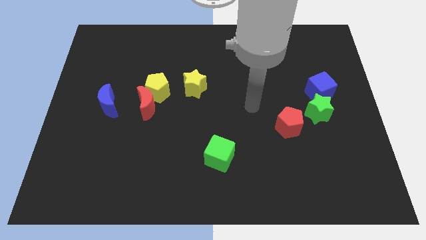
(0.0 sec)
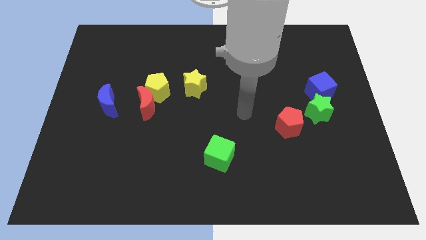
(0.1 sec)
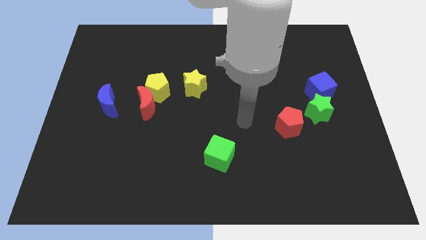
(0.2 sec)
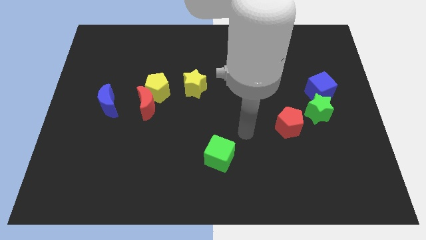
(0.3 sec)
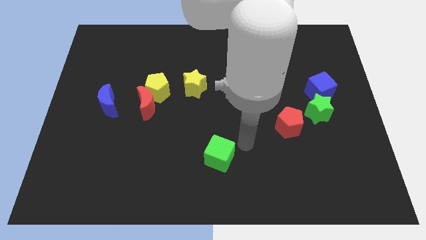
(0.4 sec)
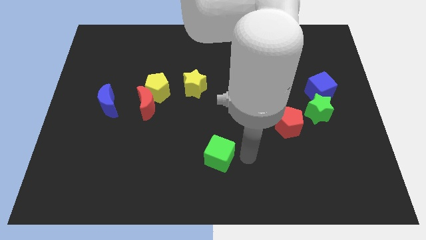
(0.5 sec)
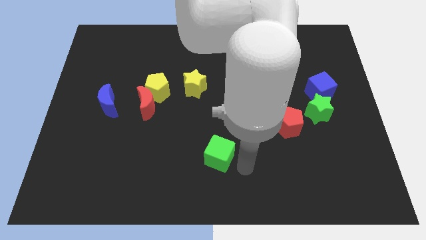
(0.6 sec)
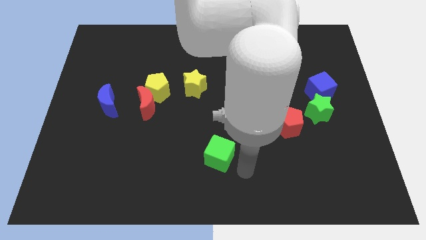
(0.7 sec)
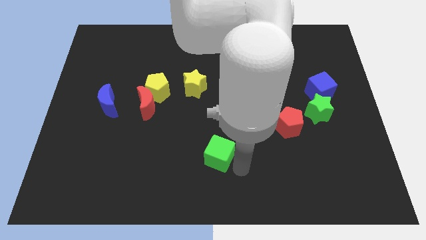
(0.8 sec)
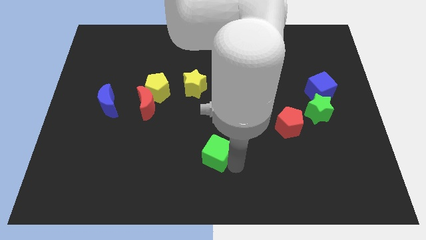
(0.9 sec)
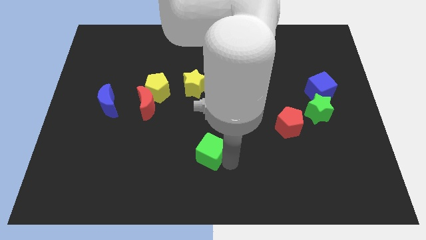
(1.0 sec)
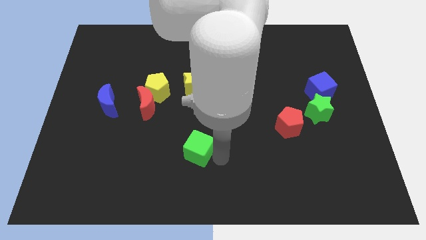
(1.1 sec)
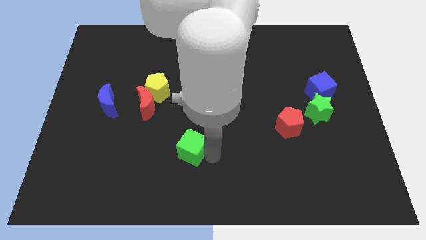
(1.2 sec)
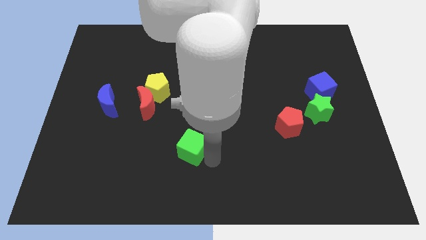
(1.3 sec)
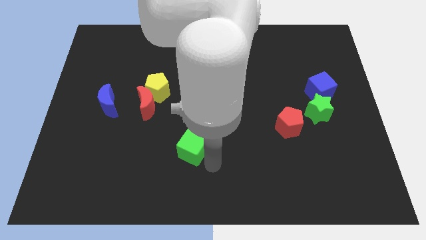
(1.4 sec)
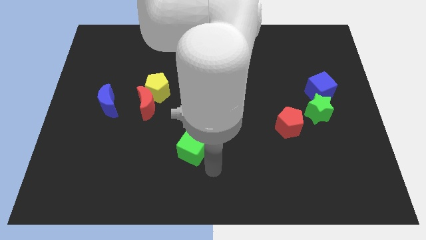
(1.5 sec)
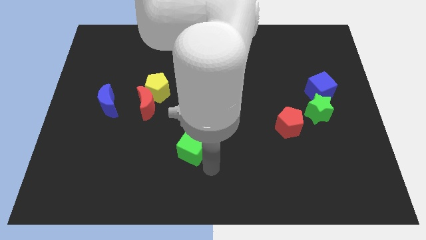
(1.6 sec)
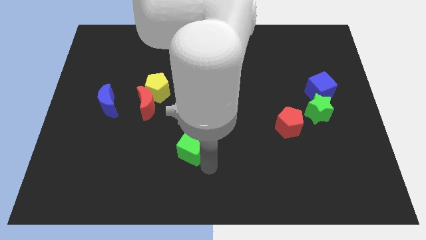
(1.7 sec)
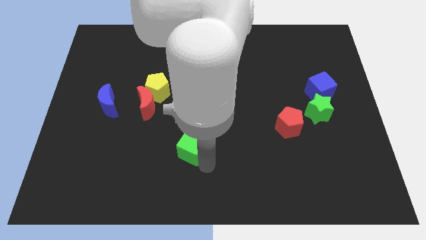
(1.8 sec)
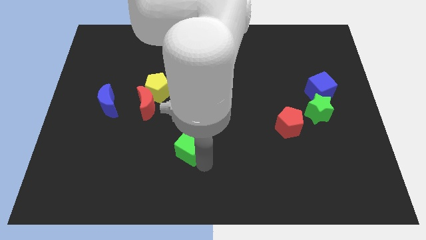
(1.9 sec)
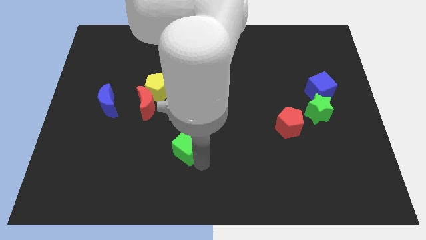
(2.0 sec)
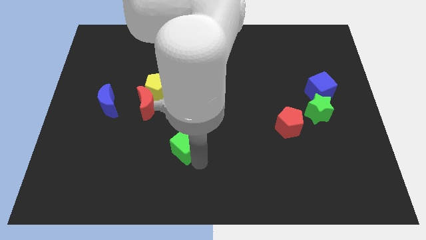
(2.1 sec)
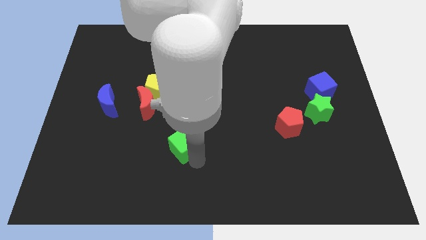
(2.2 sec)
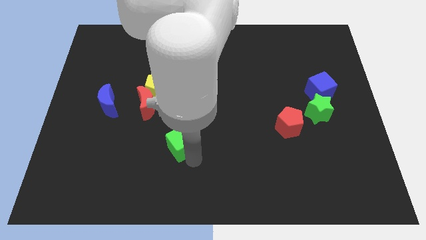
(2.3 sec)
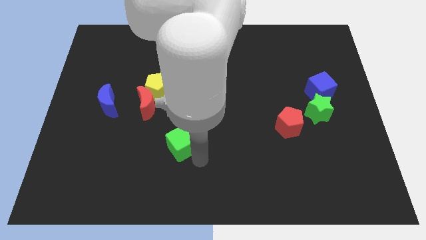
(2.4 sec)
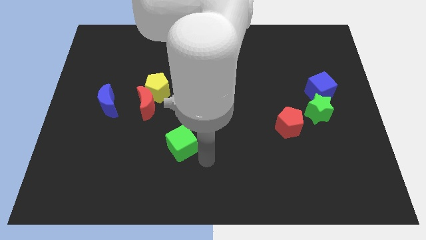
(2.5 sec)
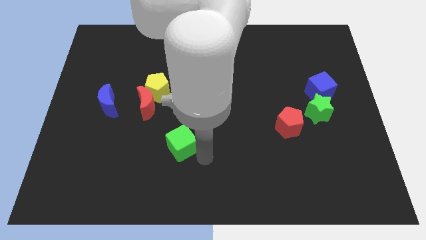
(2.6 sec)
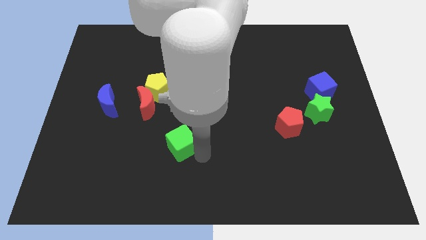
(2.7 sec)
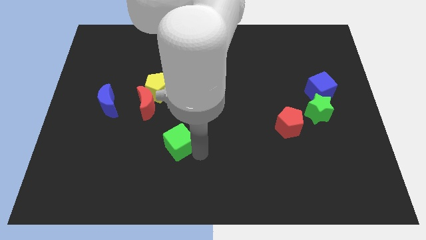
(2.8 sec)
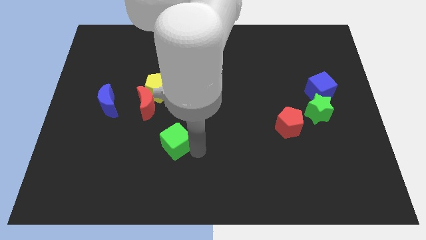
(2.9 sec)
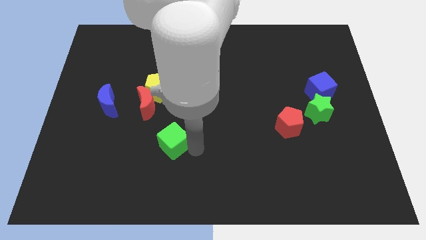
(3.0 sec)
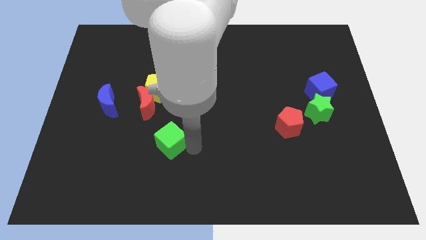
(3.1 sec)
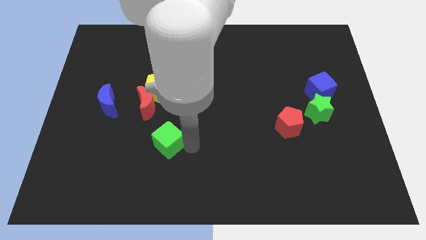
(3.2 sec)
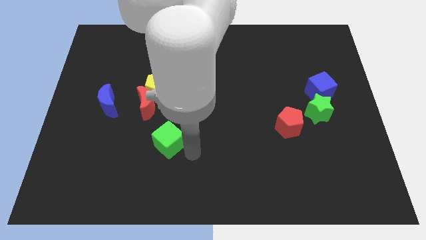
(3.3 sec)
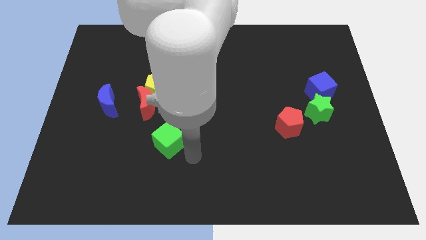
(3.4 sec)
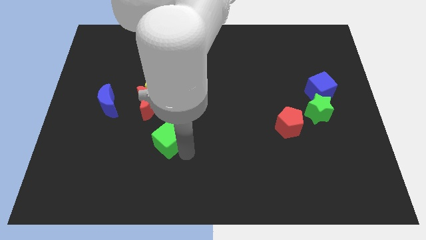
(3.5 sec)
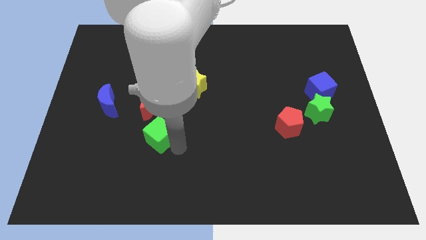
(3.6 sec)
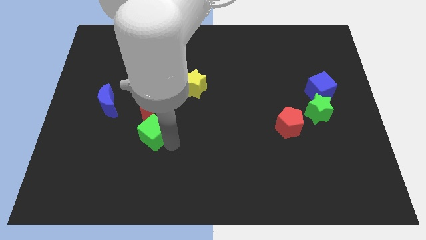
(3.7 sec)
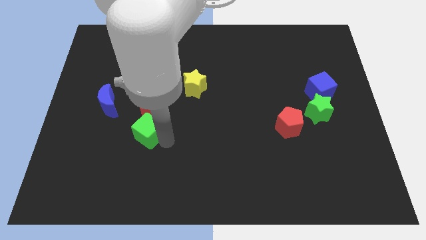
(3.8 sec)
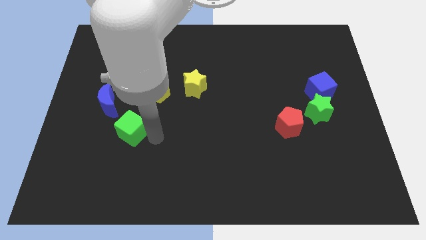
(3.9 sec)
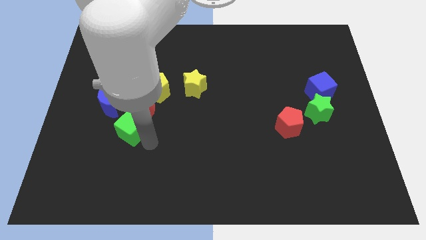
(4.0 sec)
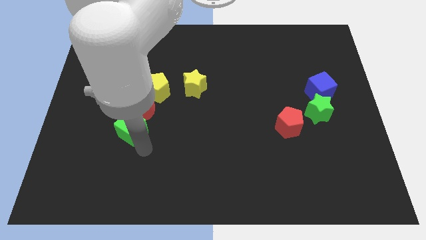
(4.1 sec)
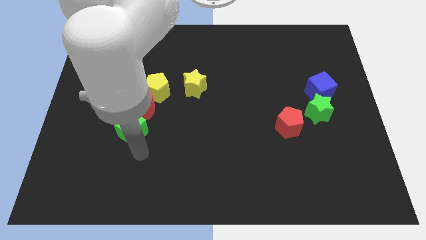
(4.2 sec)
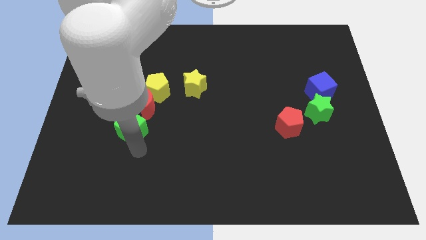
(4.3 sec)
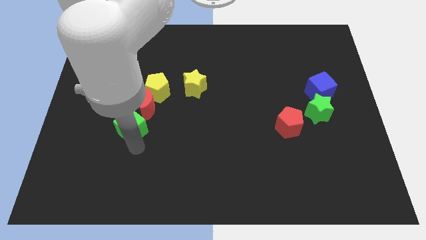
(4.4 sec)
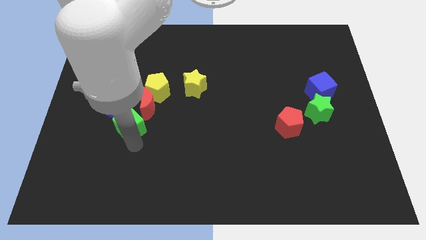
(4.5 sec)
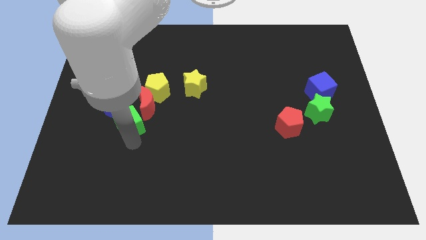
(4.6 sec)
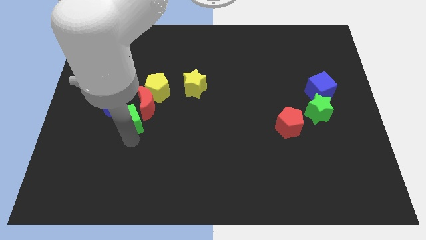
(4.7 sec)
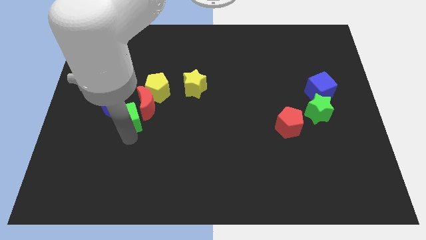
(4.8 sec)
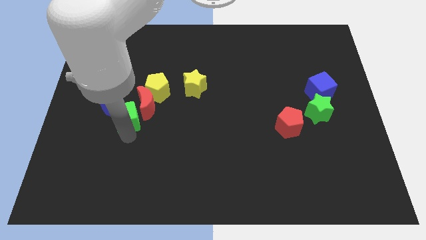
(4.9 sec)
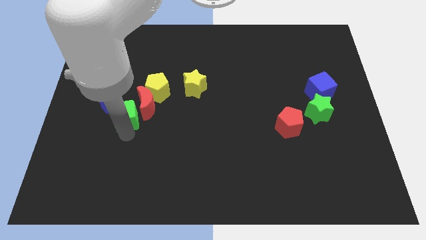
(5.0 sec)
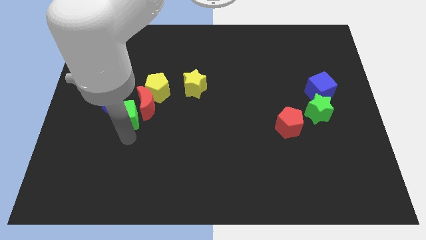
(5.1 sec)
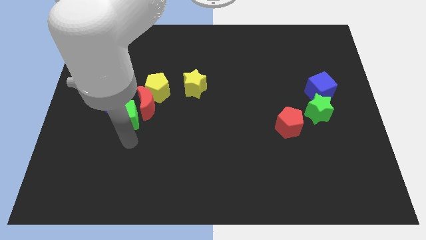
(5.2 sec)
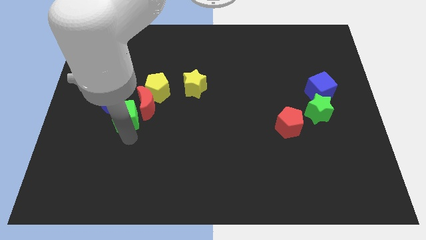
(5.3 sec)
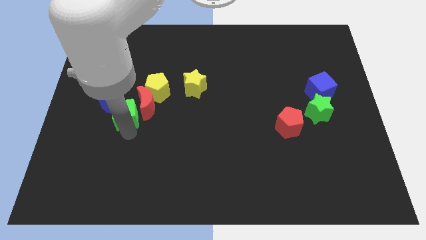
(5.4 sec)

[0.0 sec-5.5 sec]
move the green cube diagonally upwards and left

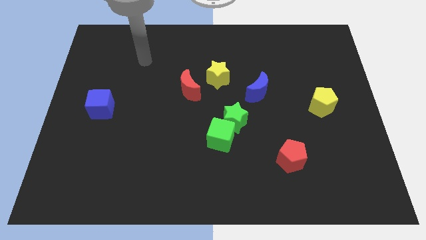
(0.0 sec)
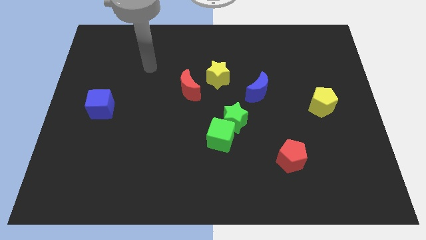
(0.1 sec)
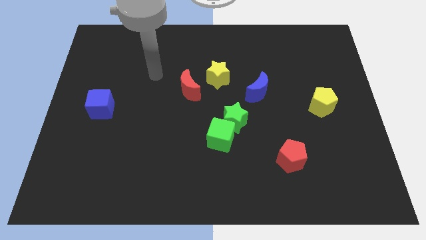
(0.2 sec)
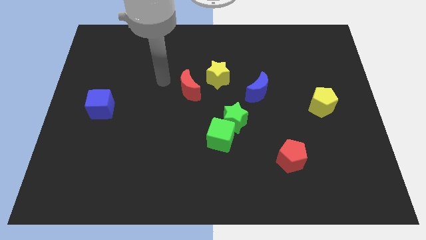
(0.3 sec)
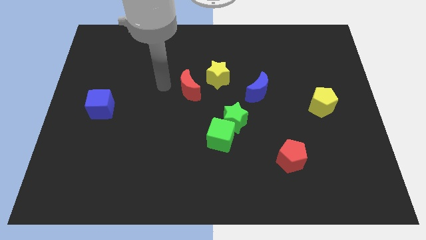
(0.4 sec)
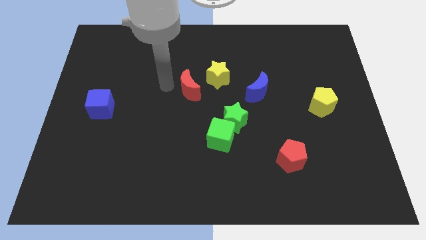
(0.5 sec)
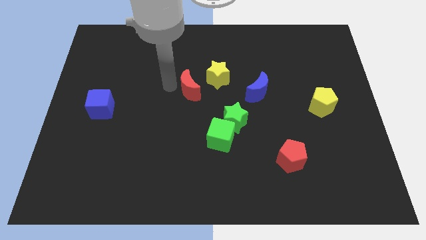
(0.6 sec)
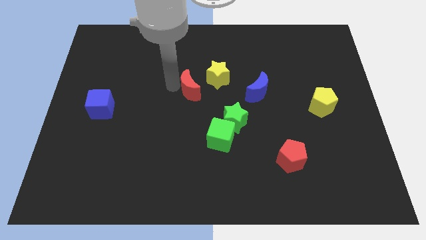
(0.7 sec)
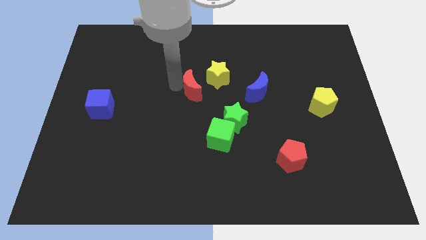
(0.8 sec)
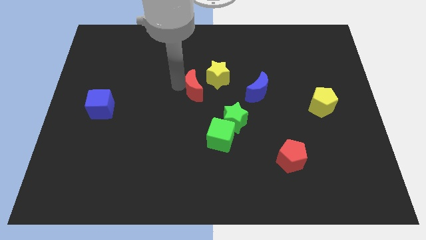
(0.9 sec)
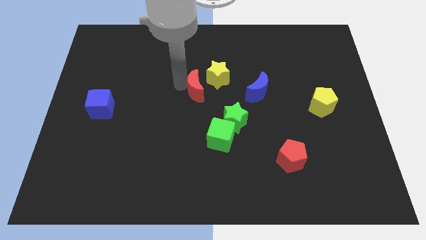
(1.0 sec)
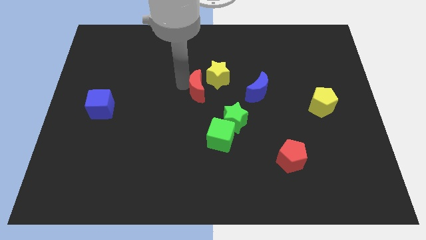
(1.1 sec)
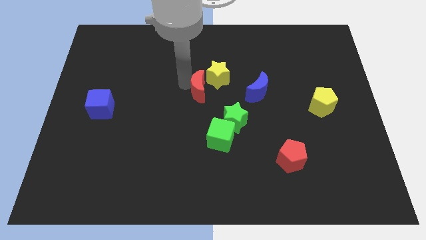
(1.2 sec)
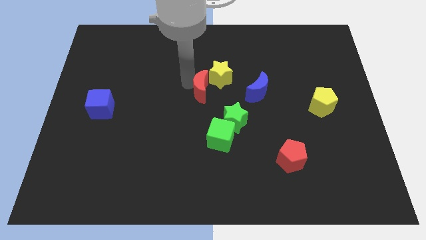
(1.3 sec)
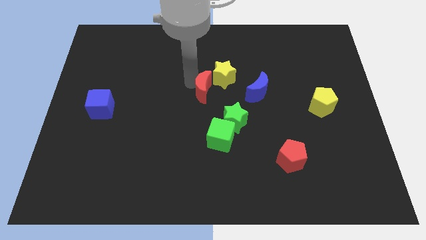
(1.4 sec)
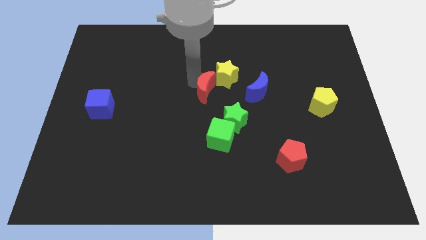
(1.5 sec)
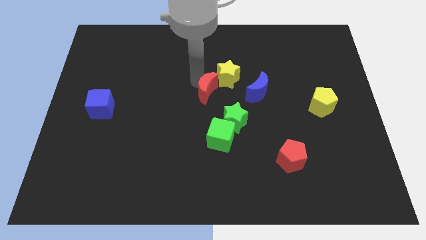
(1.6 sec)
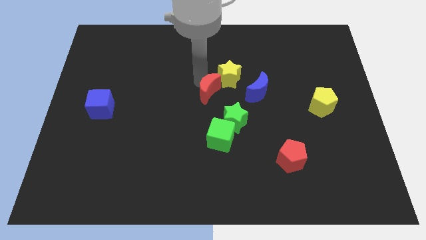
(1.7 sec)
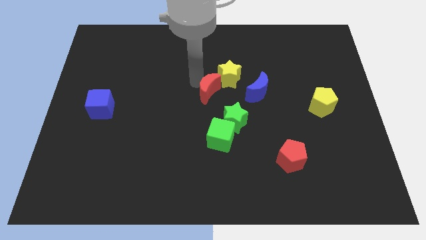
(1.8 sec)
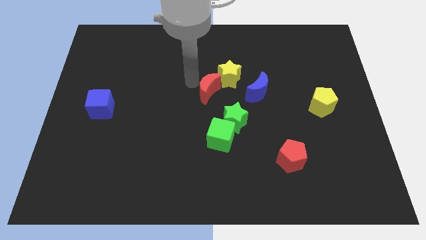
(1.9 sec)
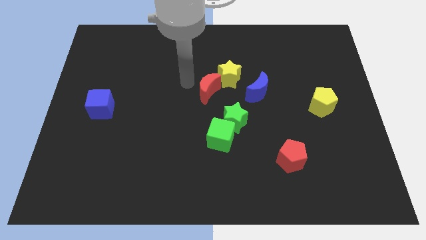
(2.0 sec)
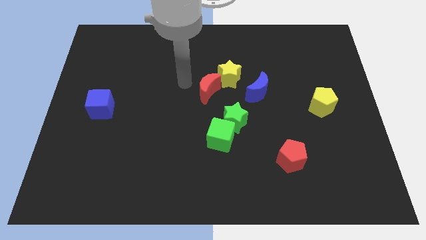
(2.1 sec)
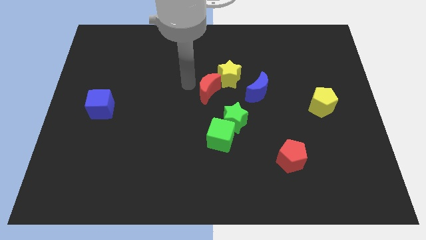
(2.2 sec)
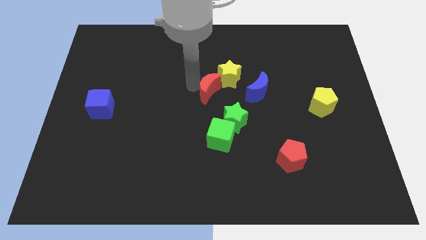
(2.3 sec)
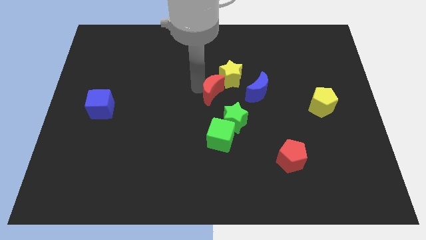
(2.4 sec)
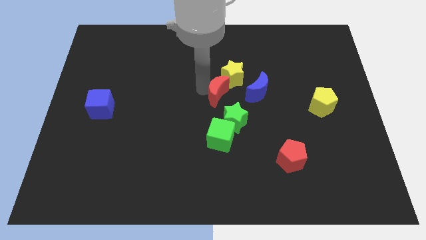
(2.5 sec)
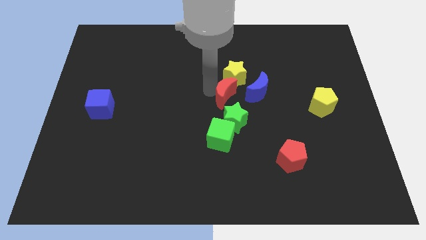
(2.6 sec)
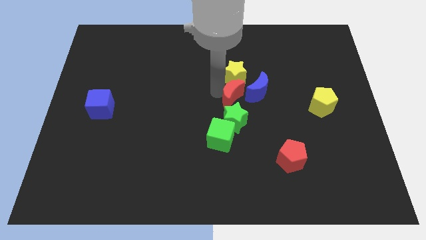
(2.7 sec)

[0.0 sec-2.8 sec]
slightly slide the red moon down and to the right diagonally
